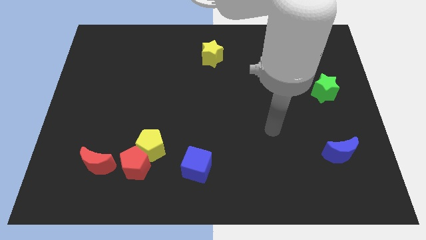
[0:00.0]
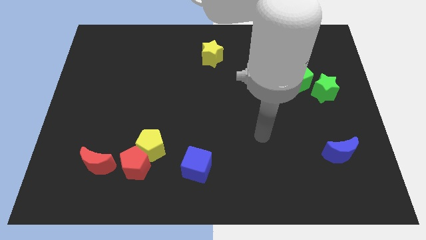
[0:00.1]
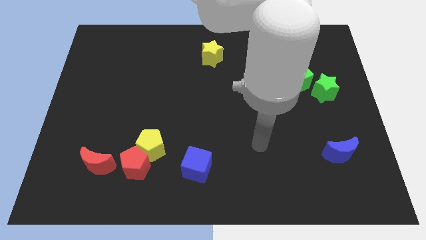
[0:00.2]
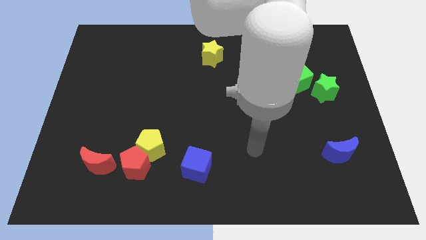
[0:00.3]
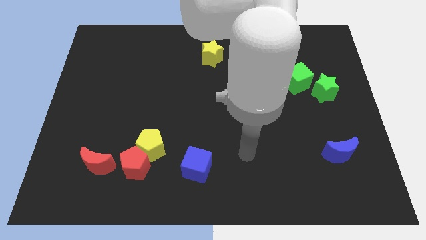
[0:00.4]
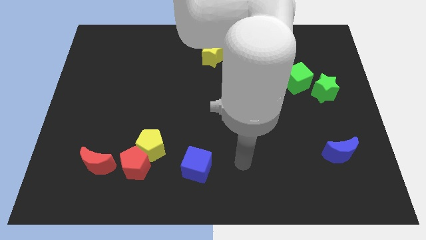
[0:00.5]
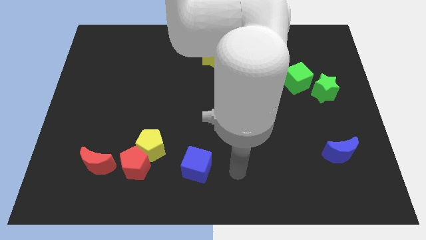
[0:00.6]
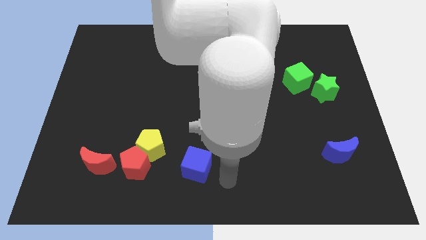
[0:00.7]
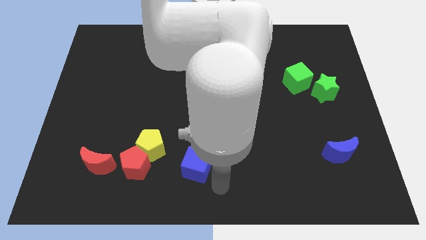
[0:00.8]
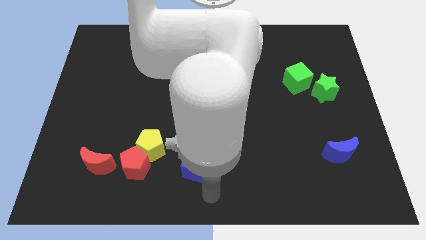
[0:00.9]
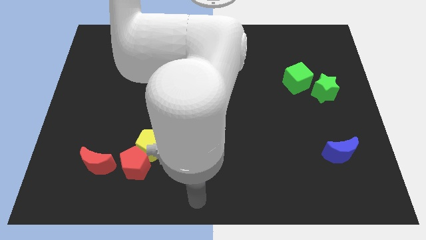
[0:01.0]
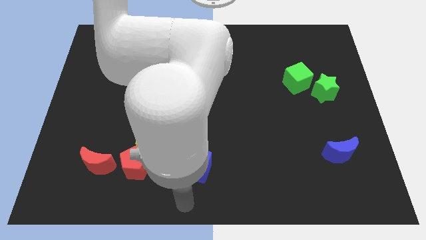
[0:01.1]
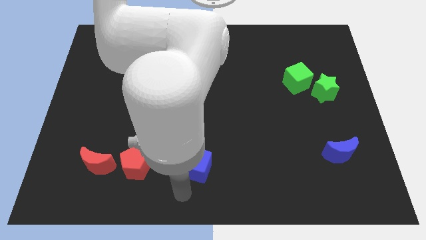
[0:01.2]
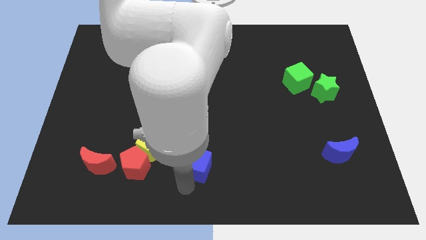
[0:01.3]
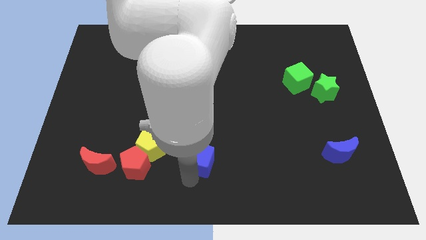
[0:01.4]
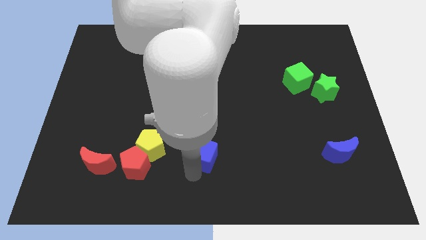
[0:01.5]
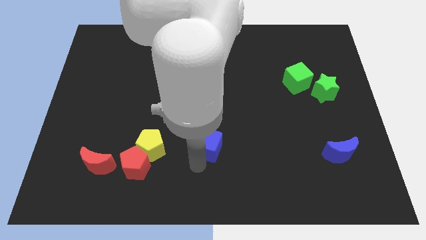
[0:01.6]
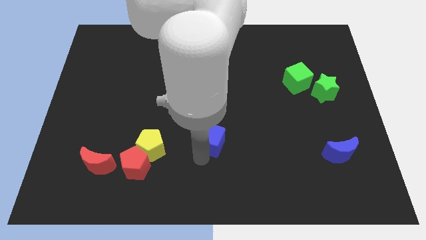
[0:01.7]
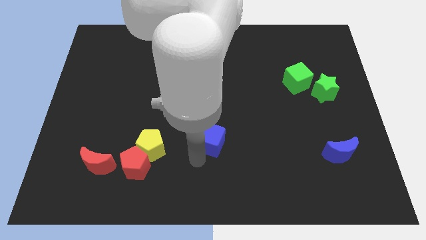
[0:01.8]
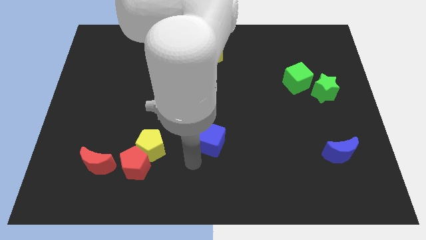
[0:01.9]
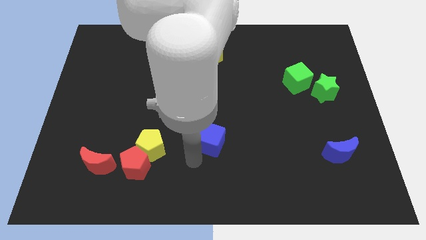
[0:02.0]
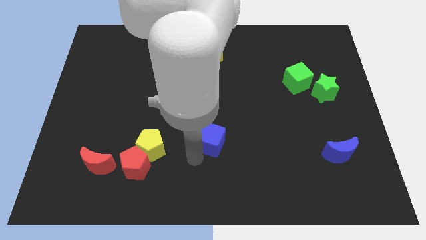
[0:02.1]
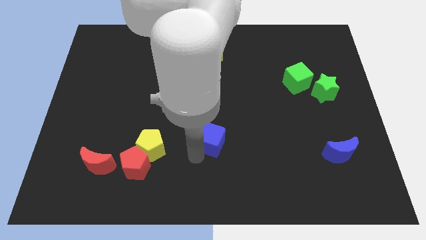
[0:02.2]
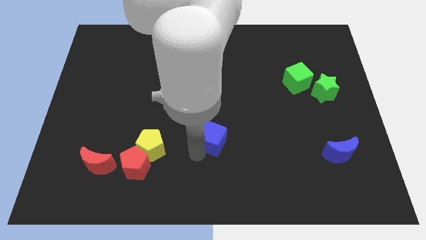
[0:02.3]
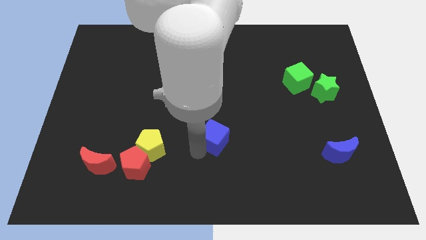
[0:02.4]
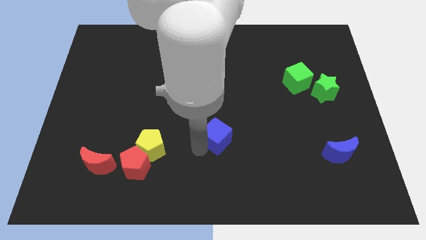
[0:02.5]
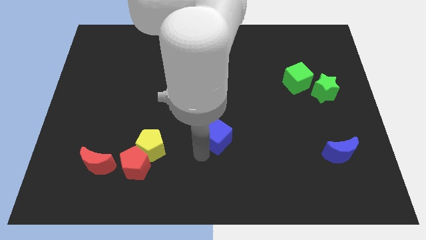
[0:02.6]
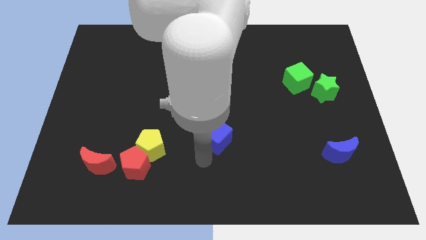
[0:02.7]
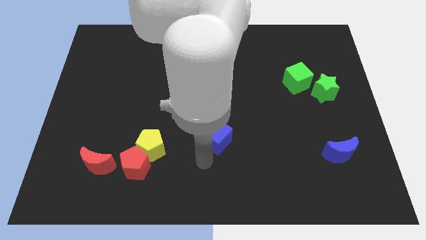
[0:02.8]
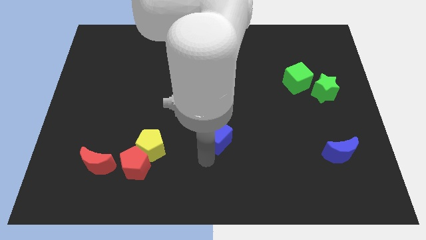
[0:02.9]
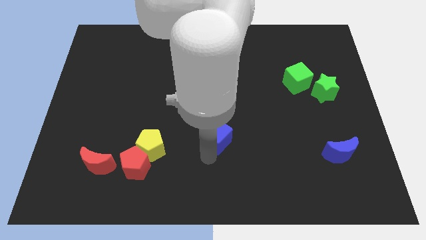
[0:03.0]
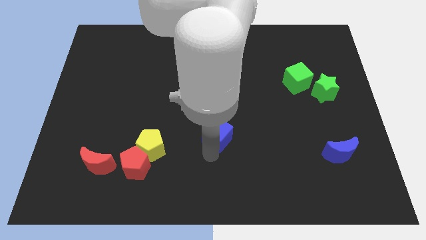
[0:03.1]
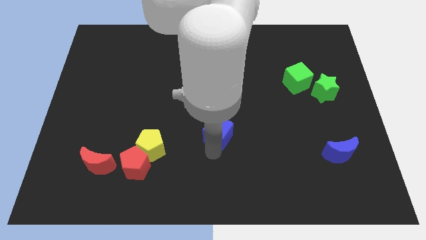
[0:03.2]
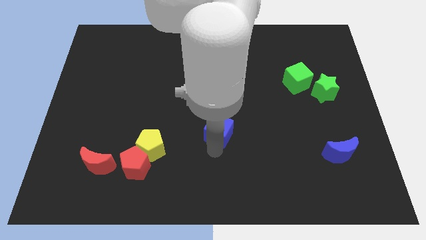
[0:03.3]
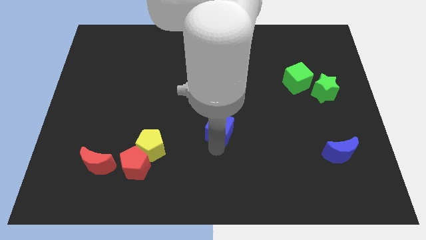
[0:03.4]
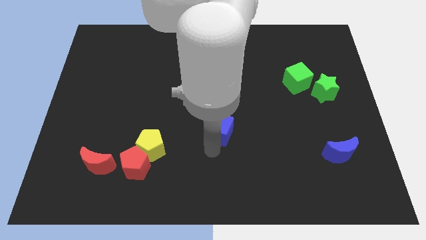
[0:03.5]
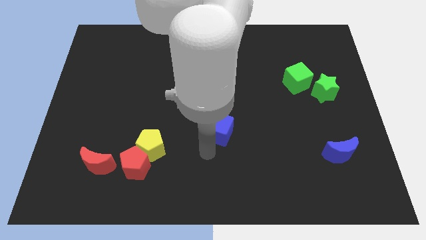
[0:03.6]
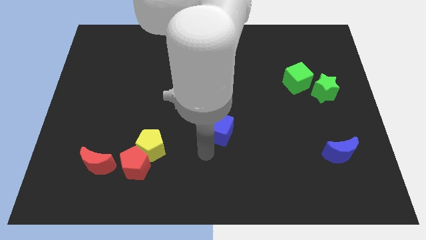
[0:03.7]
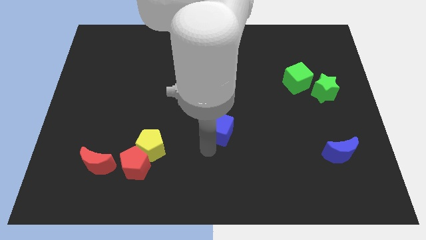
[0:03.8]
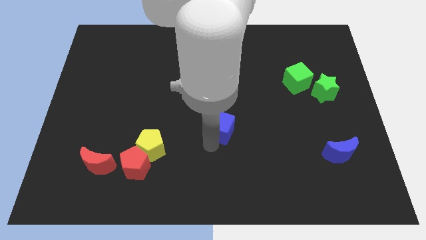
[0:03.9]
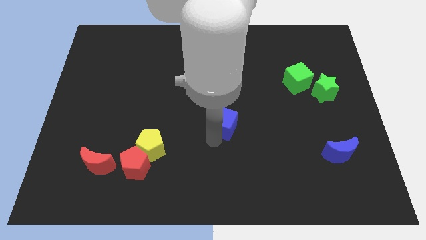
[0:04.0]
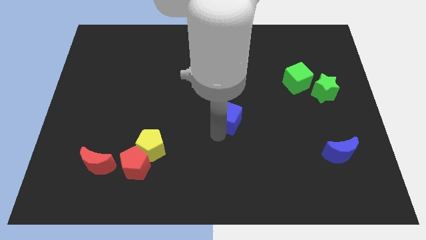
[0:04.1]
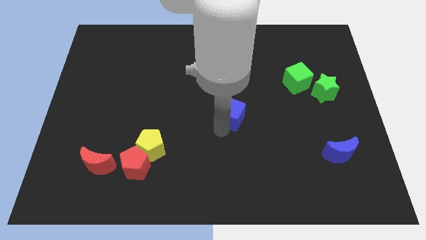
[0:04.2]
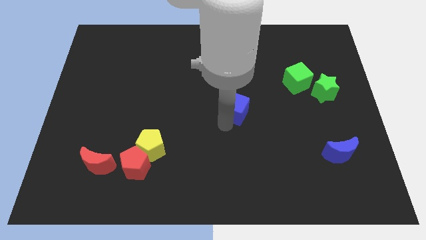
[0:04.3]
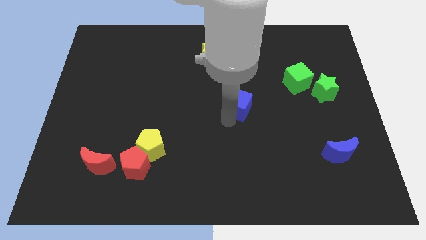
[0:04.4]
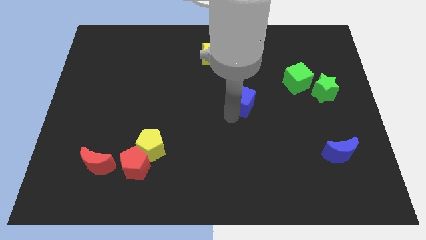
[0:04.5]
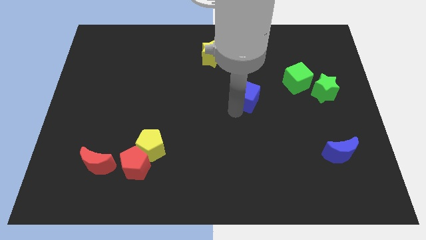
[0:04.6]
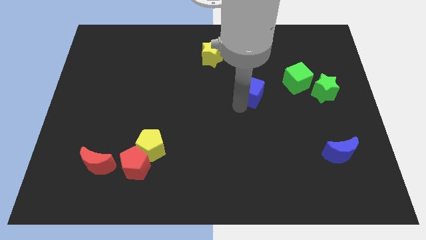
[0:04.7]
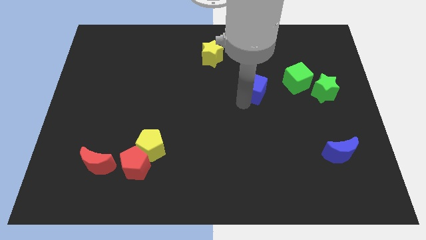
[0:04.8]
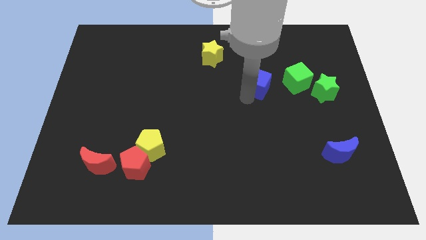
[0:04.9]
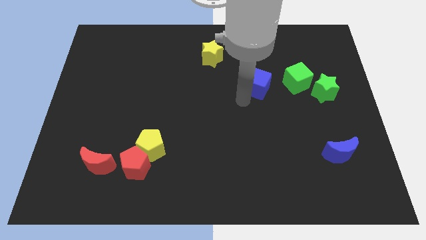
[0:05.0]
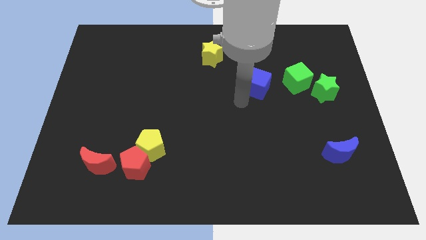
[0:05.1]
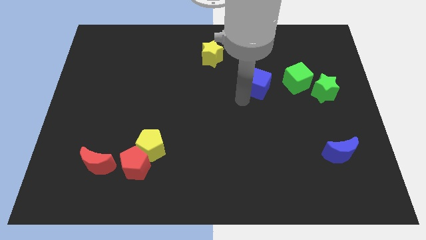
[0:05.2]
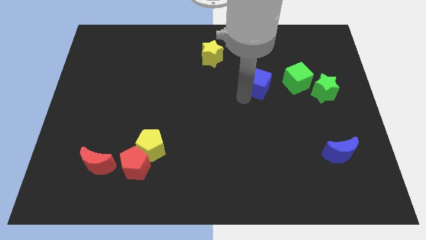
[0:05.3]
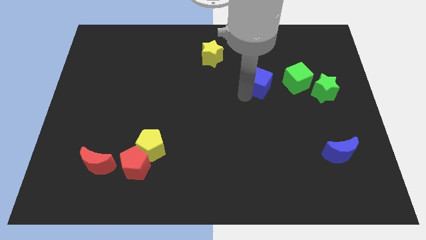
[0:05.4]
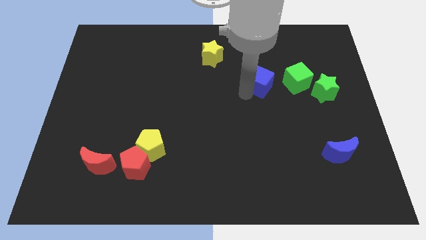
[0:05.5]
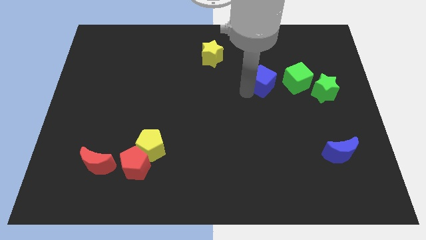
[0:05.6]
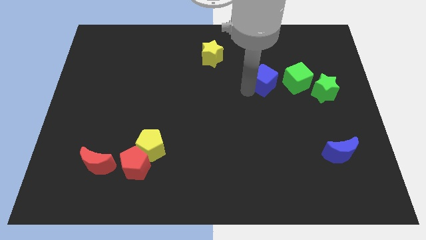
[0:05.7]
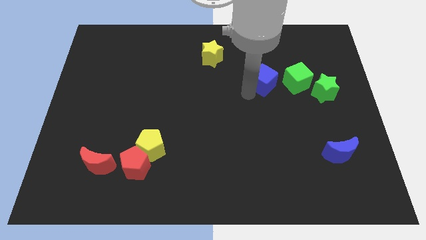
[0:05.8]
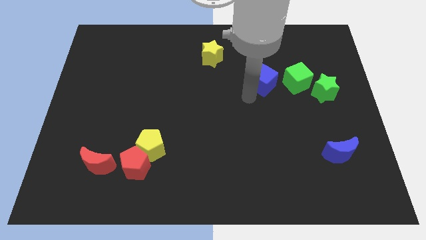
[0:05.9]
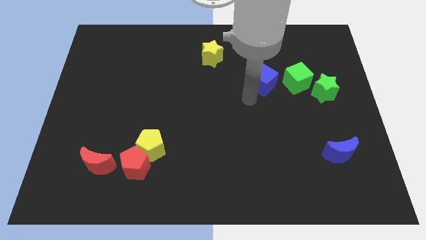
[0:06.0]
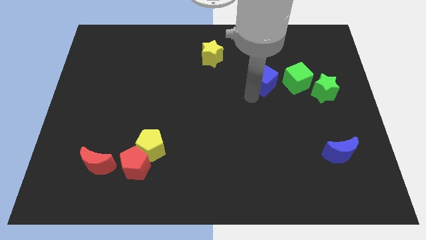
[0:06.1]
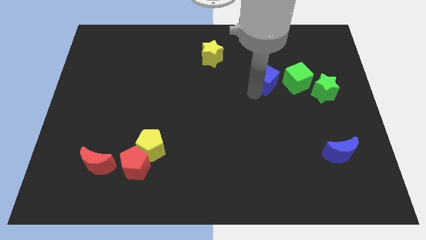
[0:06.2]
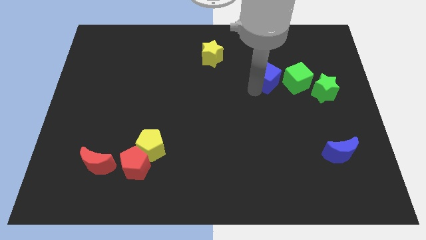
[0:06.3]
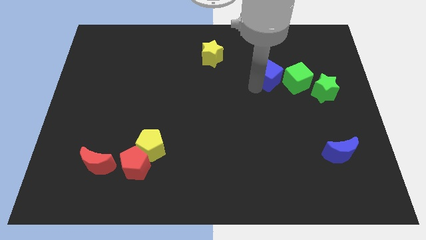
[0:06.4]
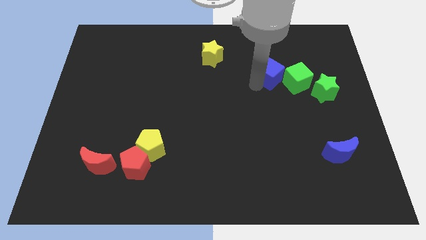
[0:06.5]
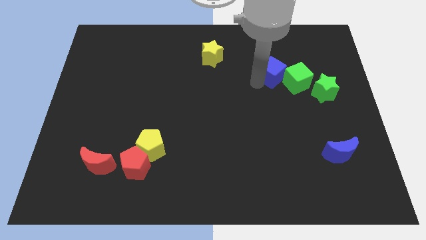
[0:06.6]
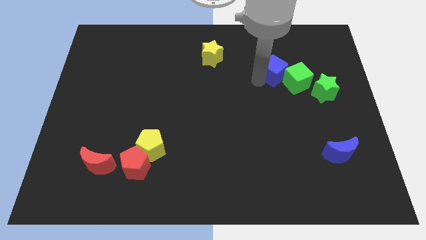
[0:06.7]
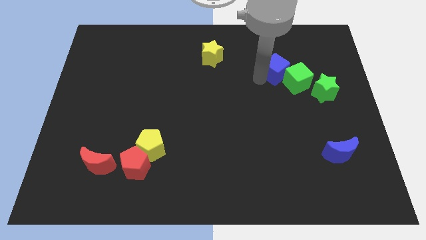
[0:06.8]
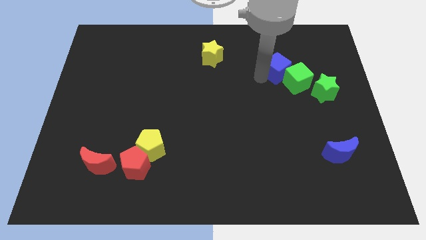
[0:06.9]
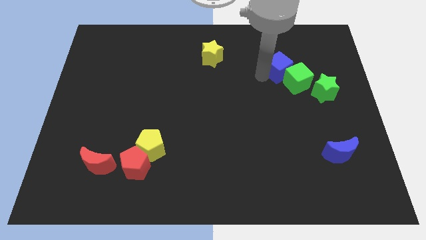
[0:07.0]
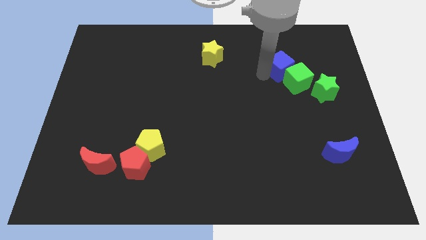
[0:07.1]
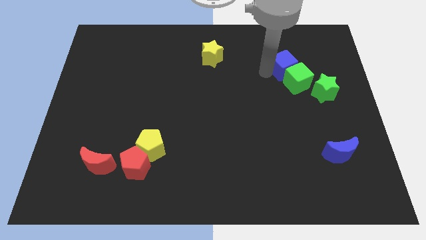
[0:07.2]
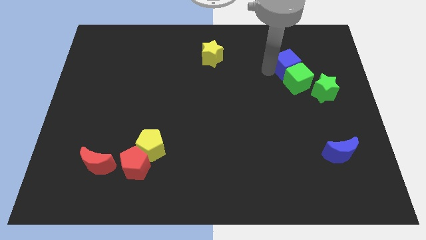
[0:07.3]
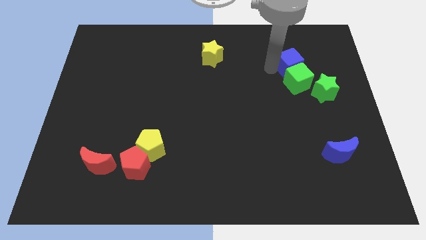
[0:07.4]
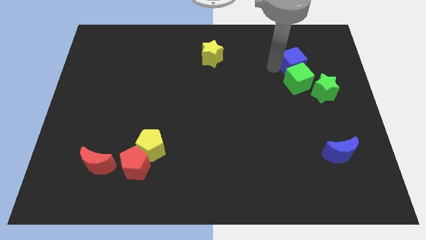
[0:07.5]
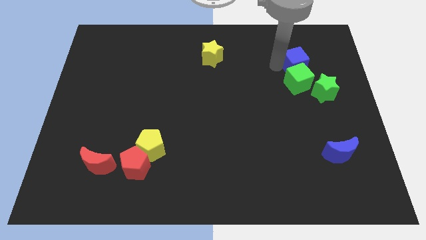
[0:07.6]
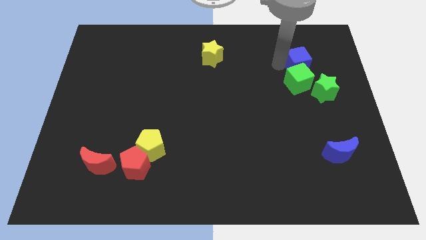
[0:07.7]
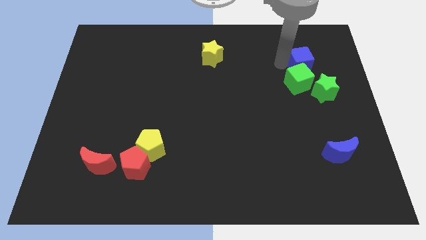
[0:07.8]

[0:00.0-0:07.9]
slide the blue cube above the green star
